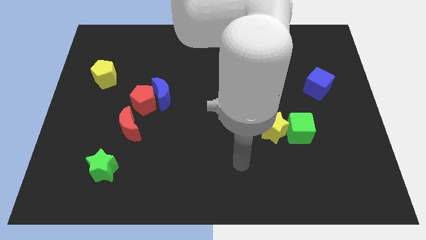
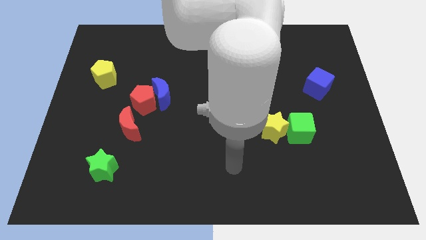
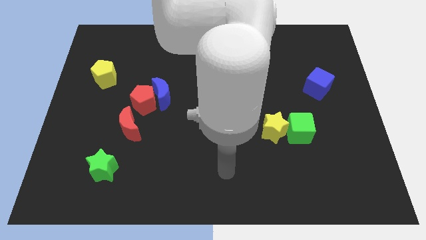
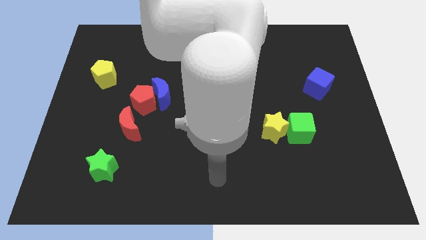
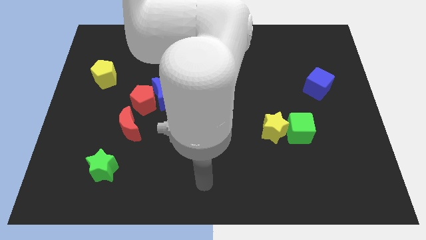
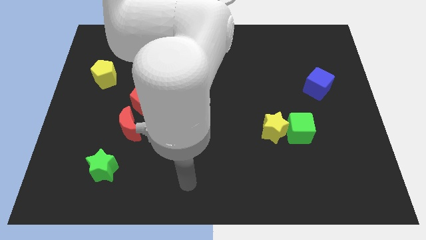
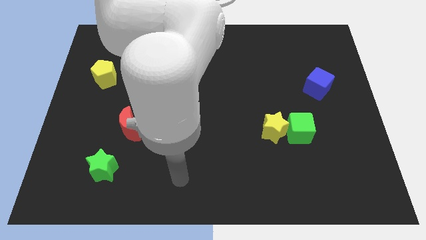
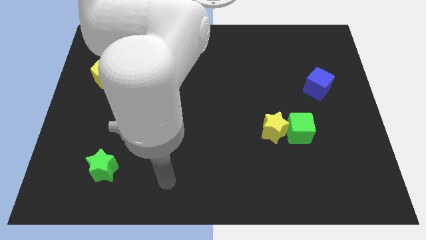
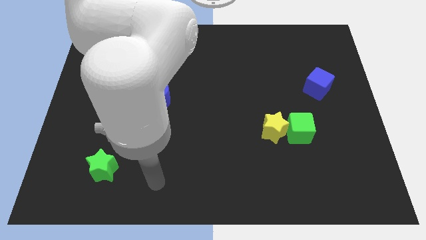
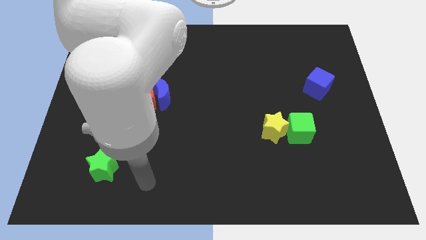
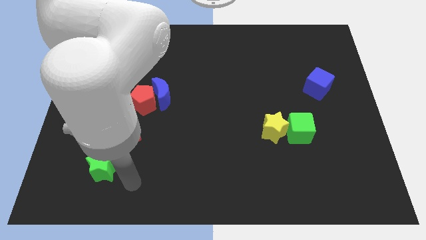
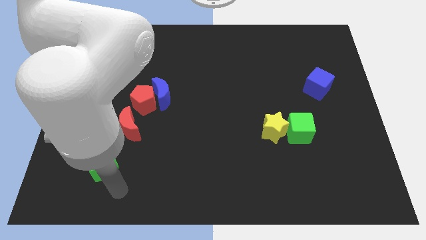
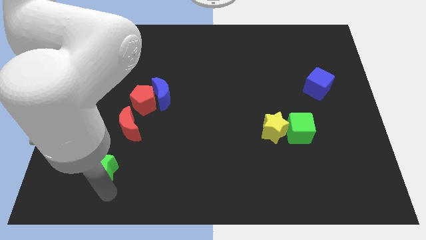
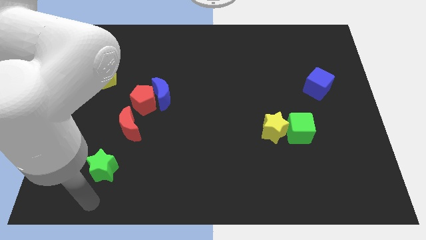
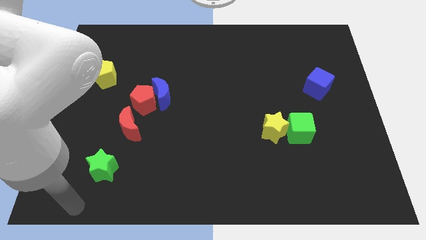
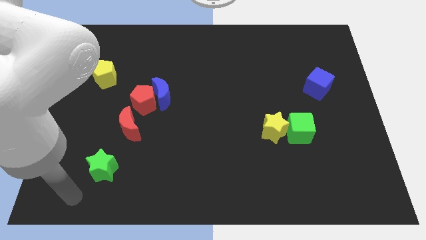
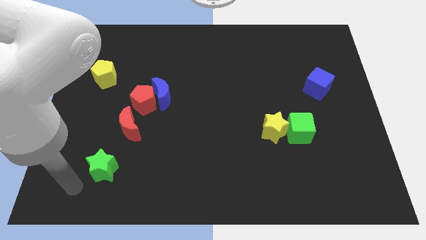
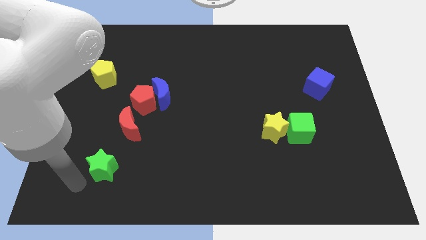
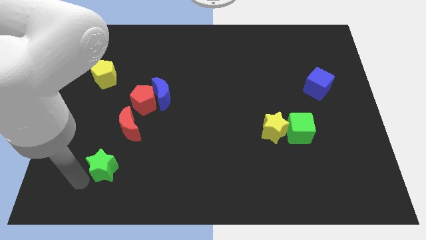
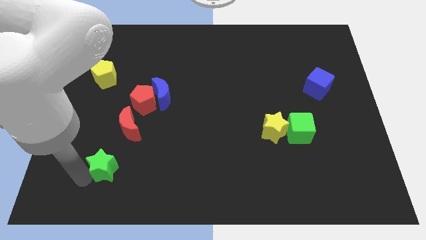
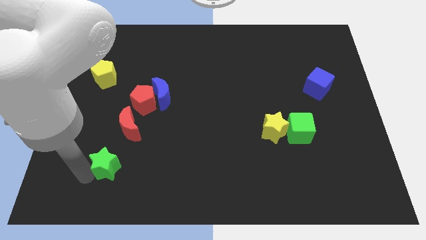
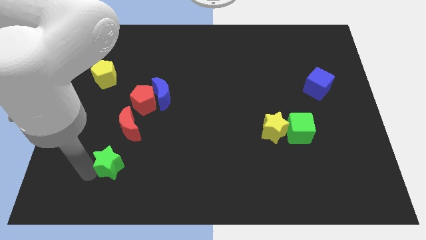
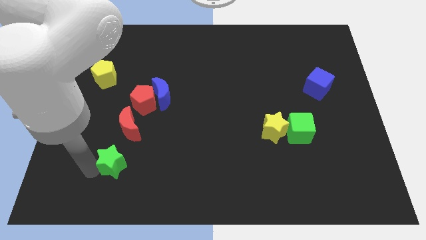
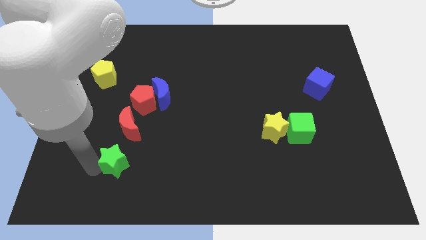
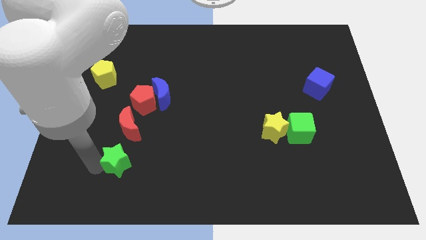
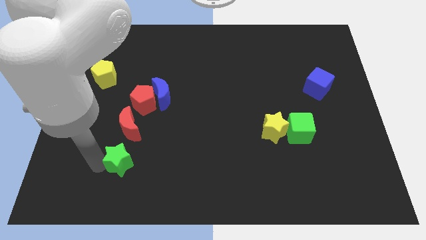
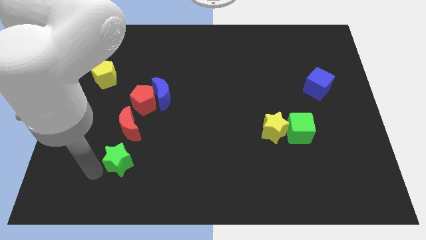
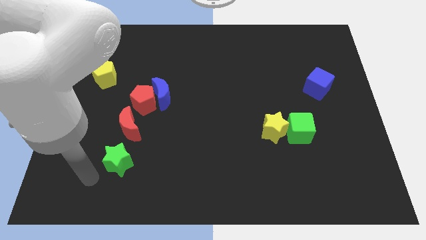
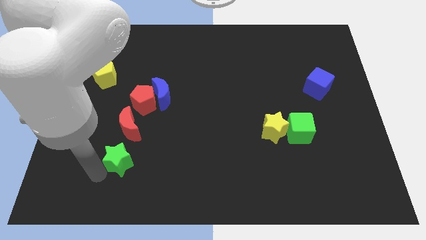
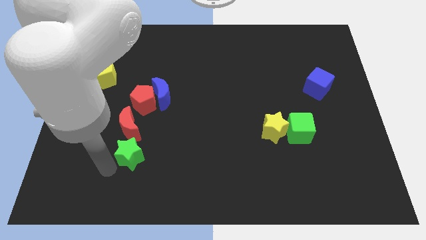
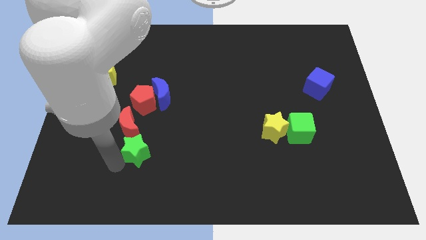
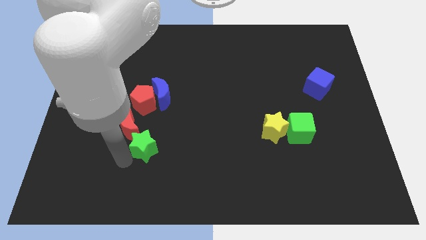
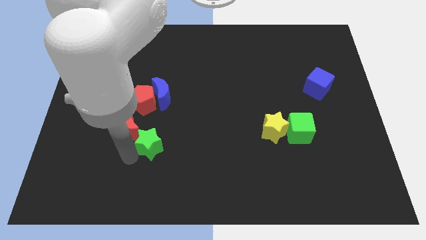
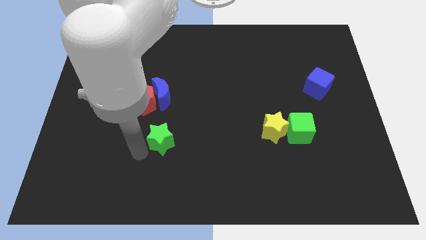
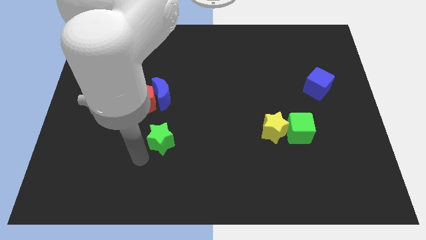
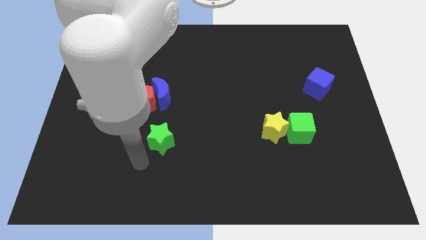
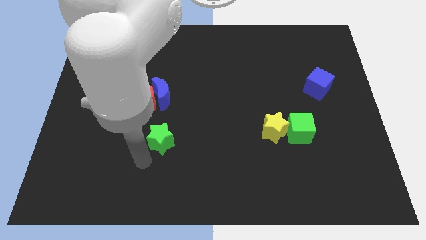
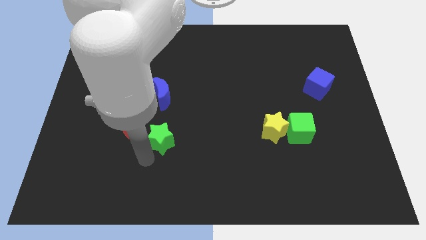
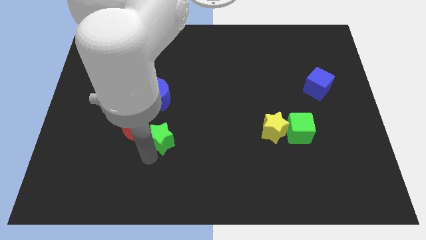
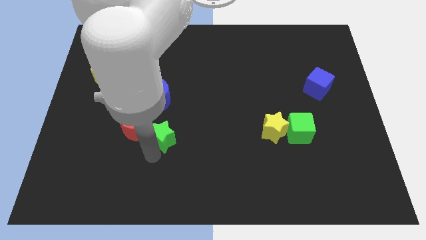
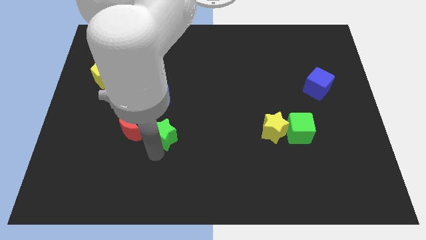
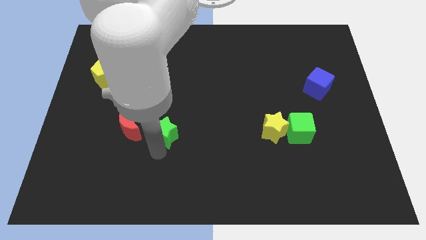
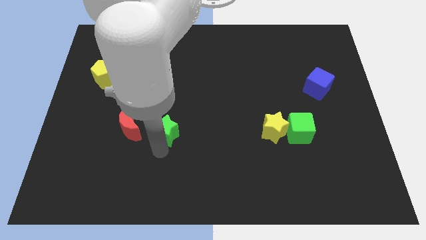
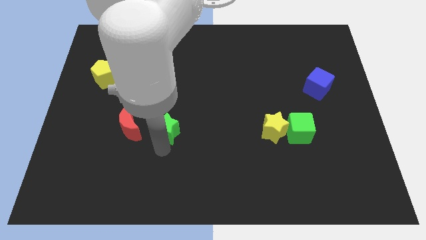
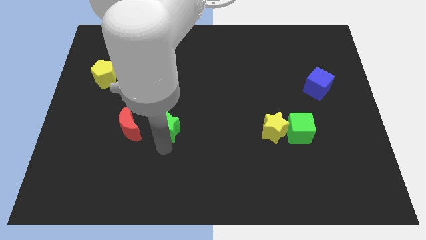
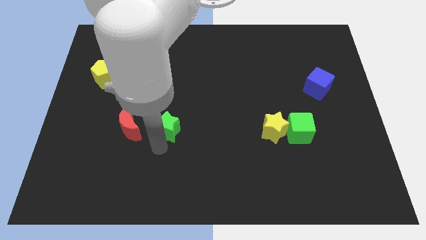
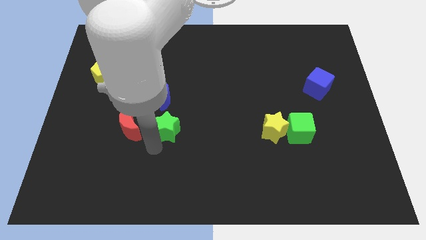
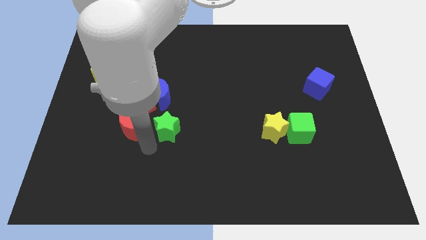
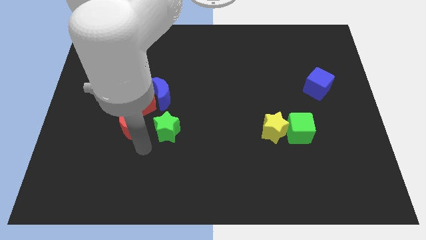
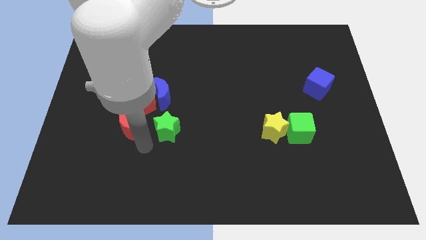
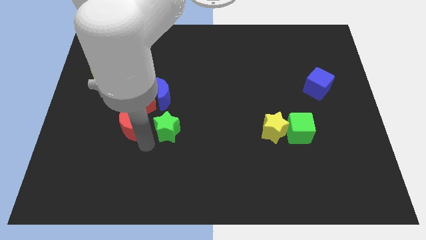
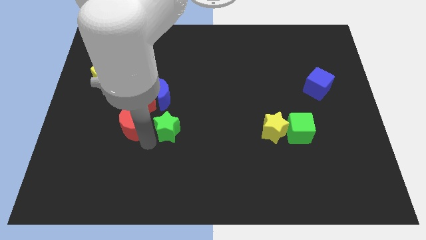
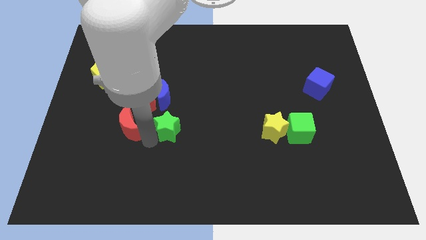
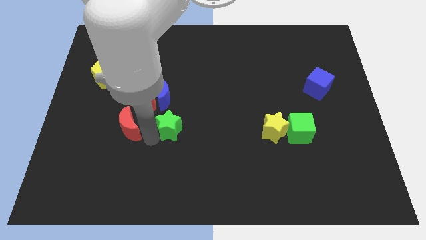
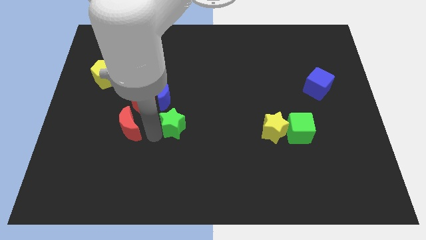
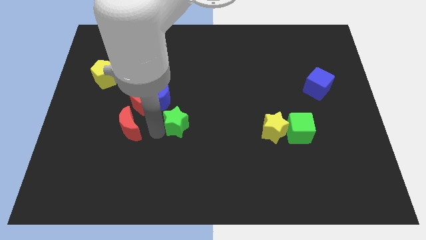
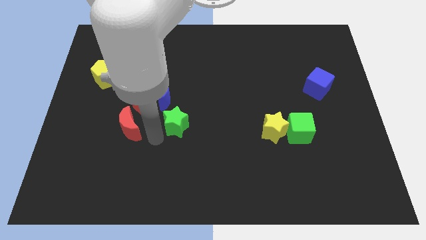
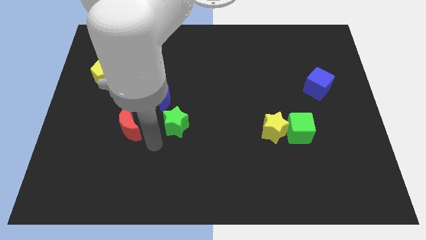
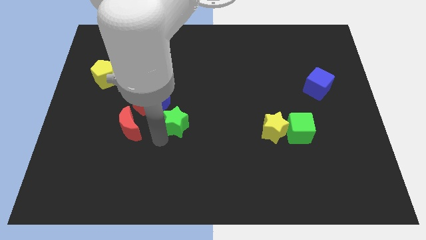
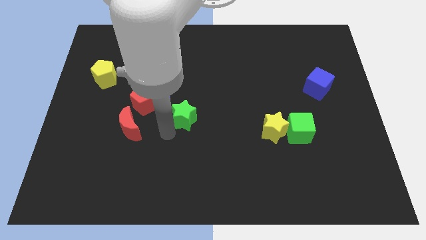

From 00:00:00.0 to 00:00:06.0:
slide the green star diagonally upwards and to the right

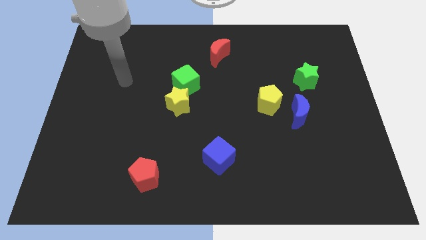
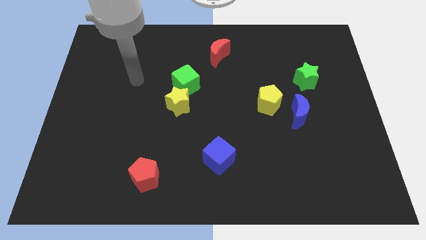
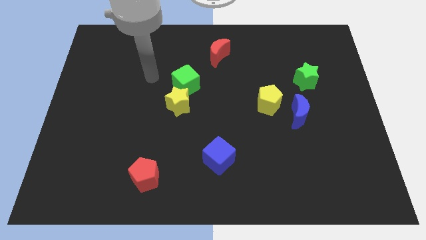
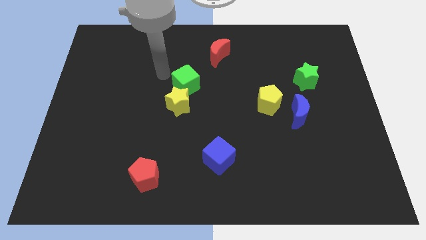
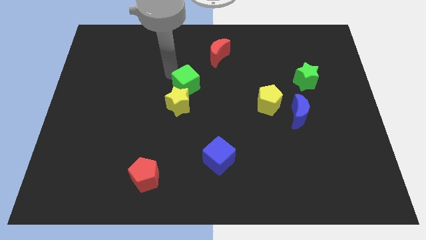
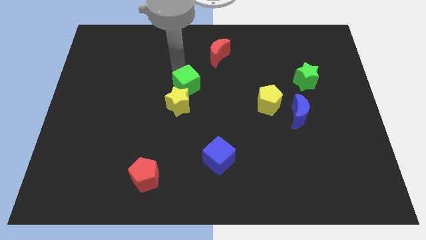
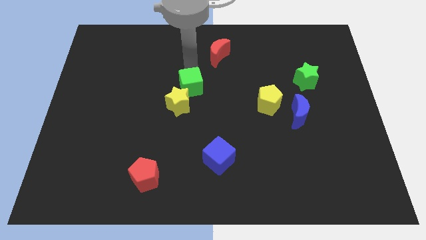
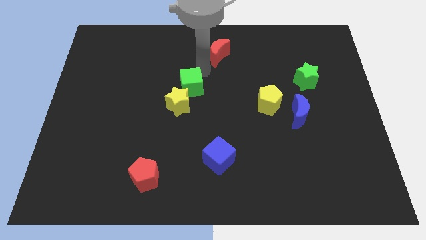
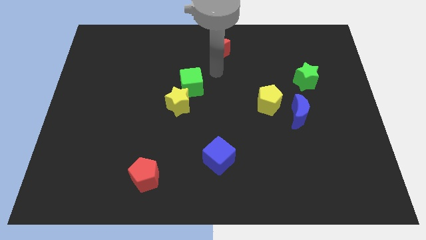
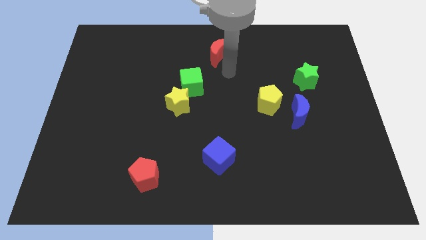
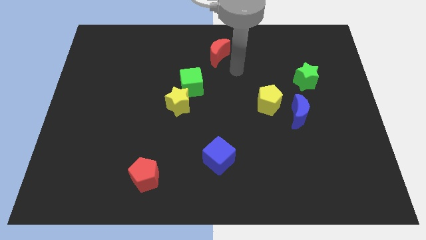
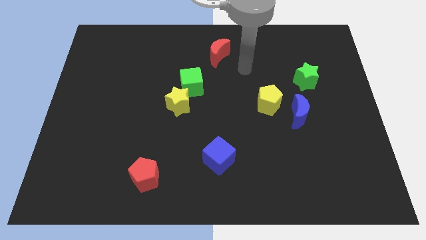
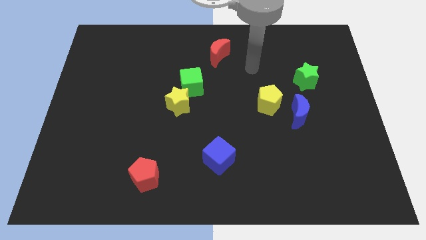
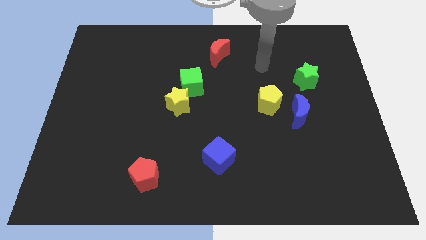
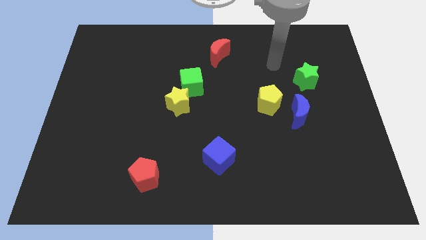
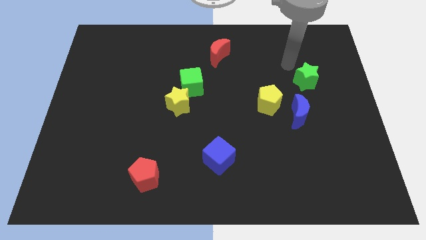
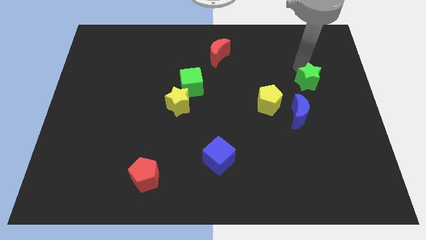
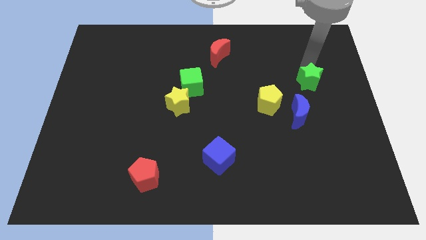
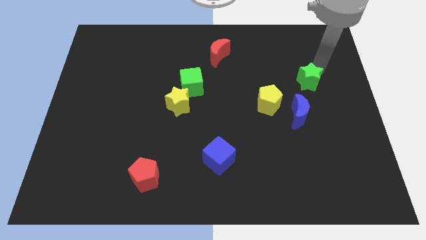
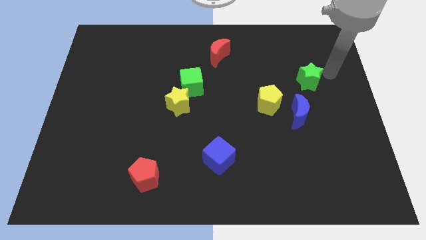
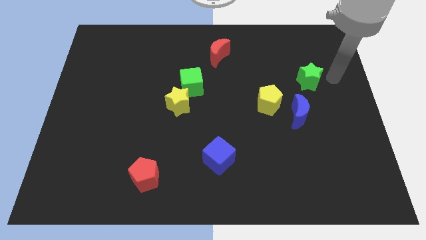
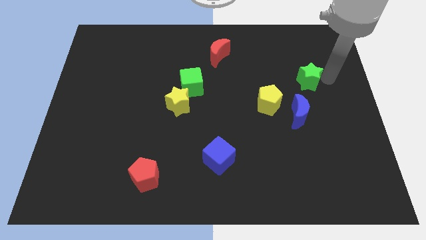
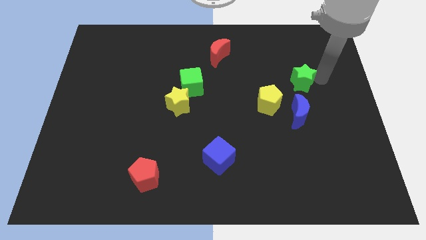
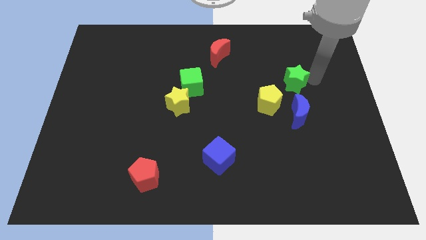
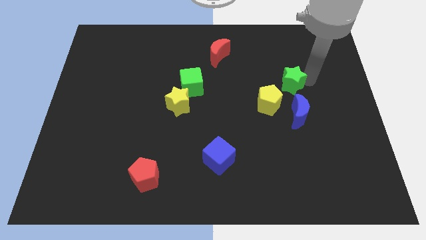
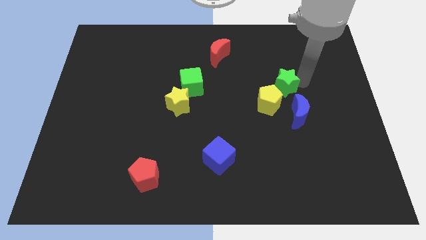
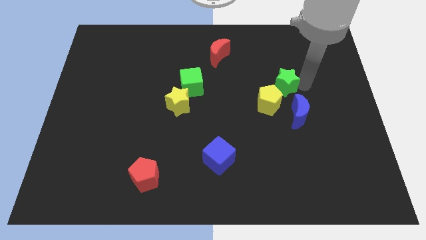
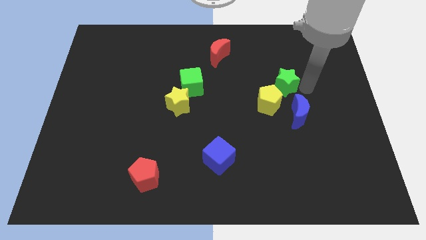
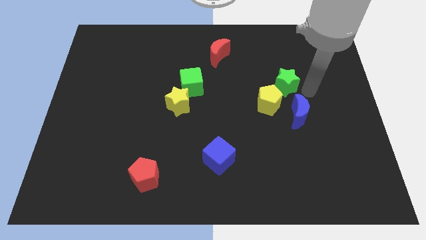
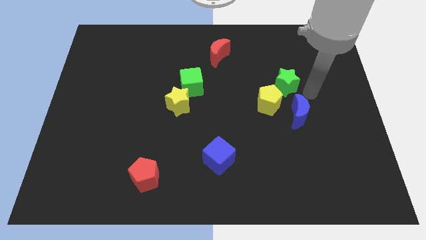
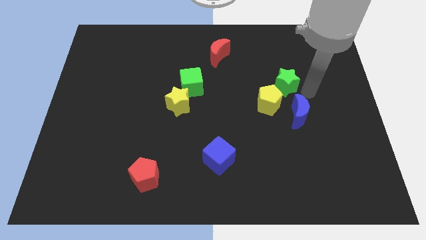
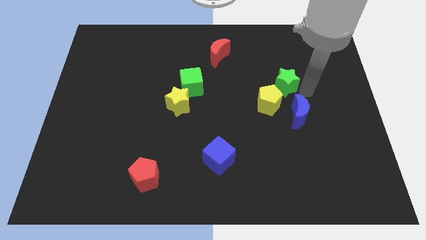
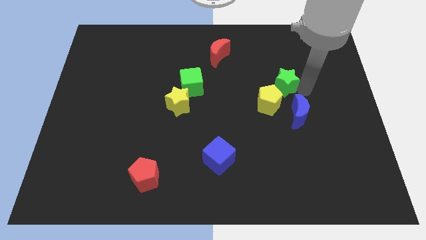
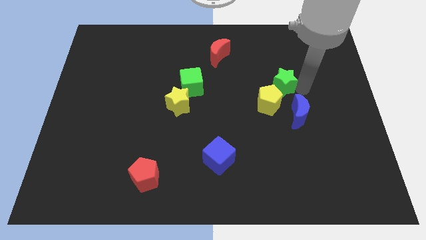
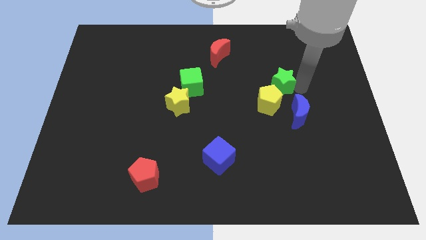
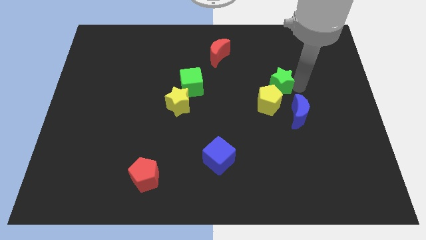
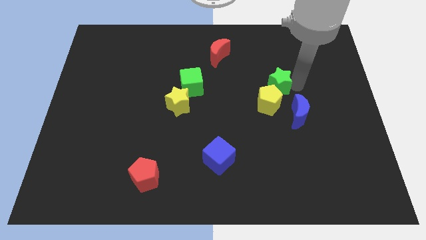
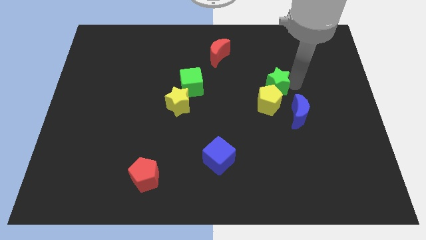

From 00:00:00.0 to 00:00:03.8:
slide the green star left somewhat
